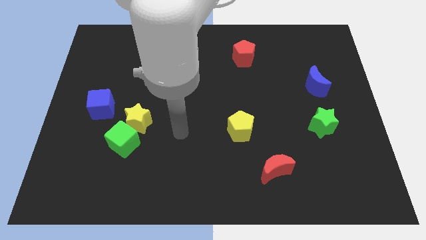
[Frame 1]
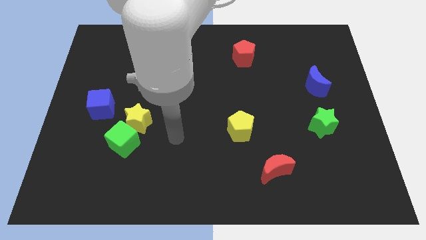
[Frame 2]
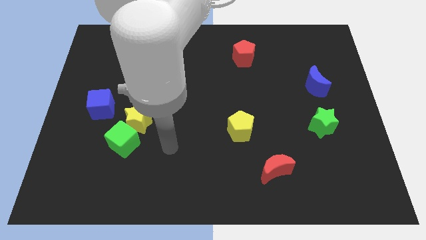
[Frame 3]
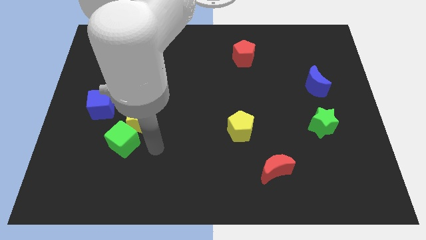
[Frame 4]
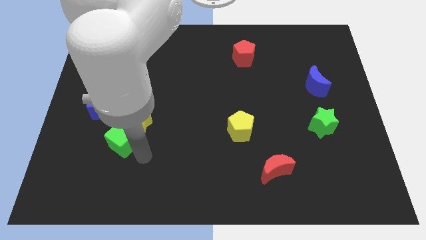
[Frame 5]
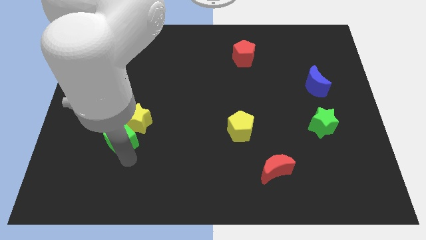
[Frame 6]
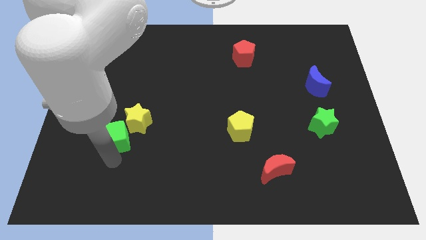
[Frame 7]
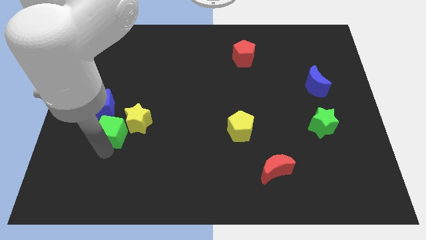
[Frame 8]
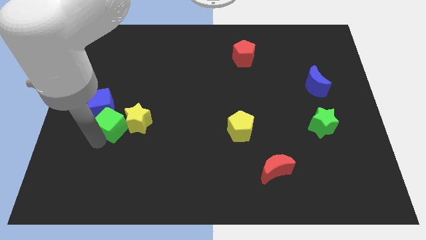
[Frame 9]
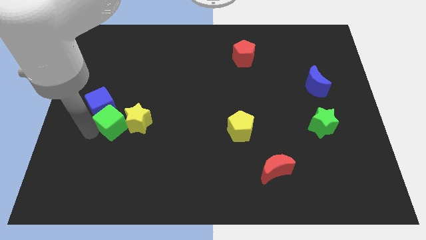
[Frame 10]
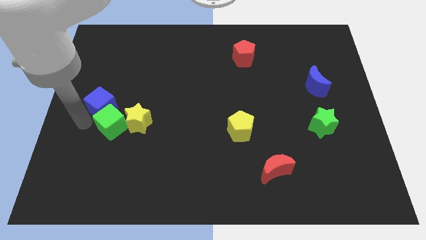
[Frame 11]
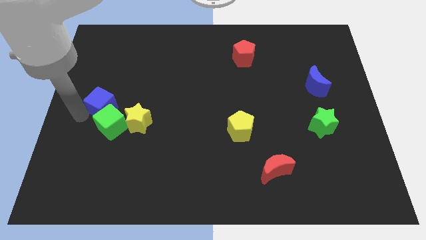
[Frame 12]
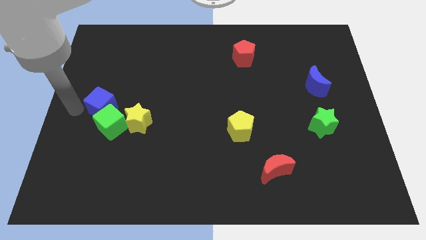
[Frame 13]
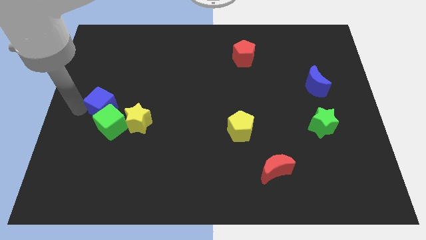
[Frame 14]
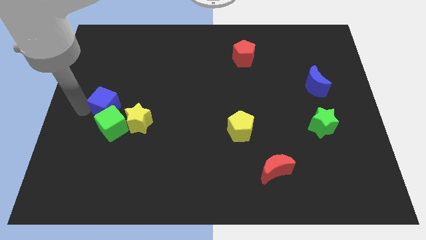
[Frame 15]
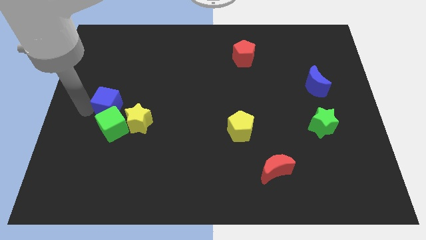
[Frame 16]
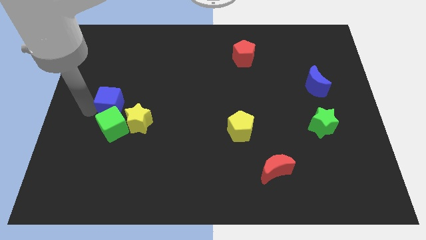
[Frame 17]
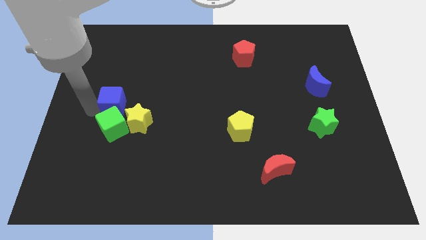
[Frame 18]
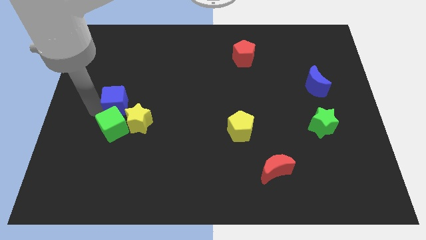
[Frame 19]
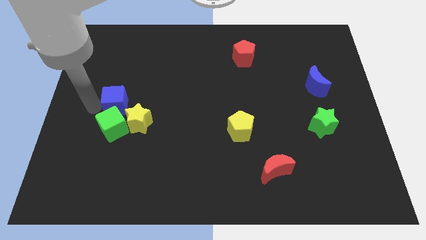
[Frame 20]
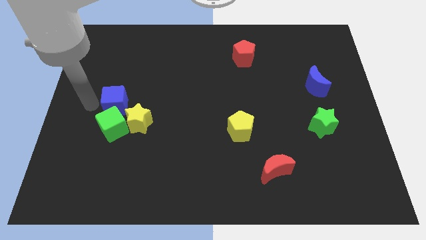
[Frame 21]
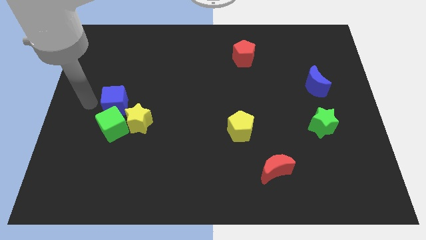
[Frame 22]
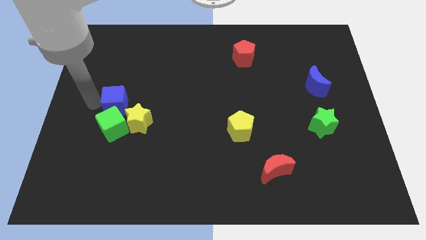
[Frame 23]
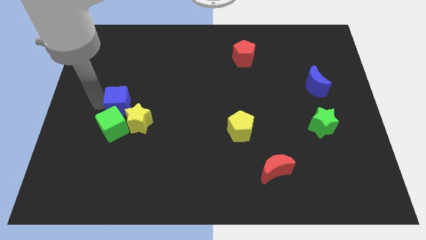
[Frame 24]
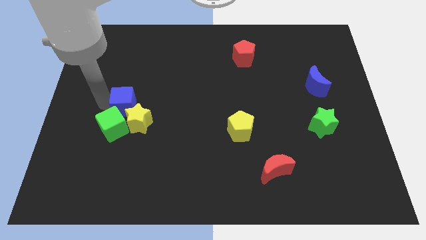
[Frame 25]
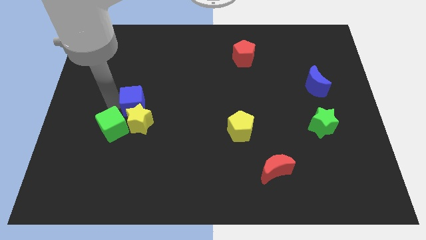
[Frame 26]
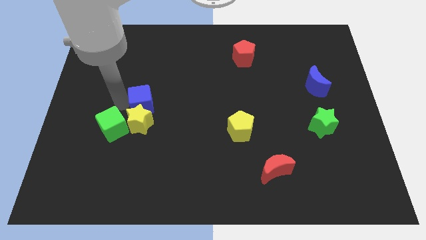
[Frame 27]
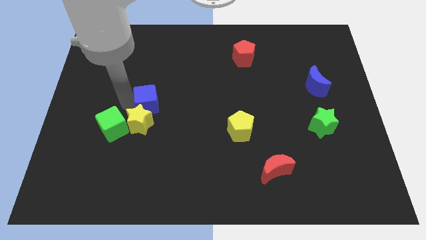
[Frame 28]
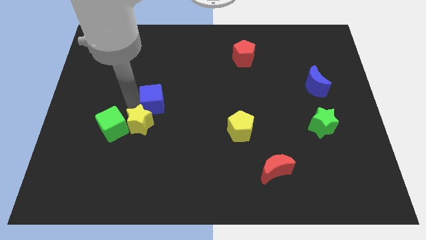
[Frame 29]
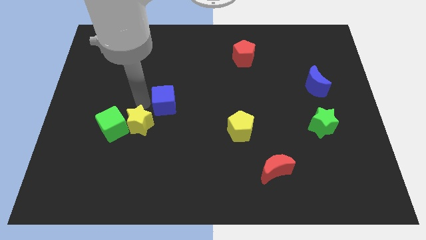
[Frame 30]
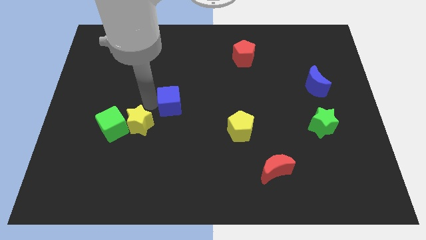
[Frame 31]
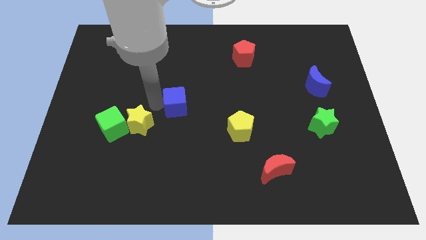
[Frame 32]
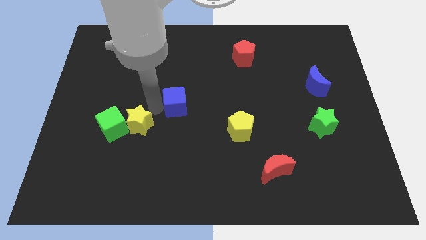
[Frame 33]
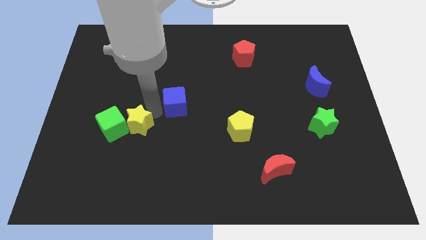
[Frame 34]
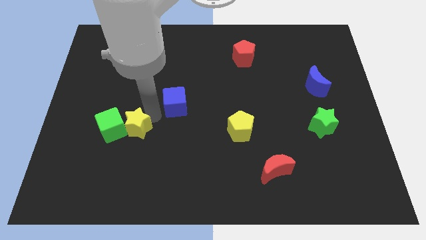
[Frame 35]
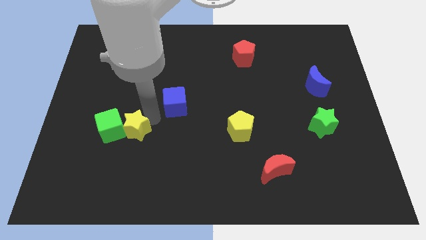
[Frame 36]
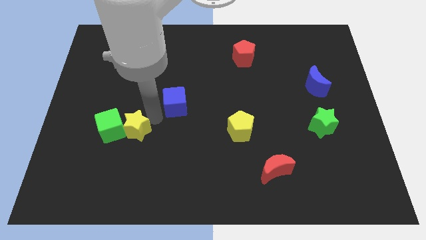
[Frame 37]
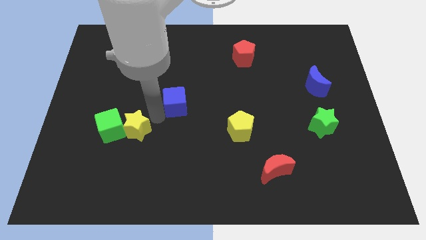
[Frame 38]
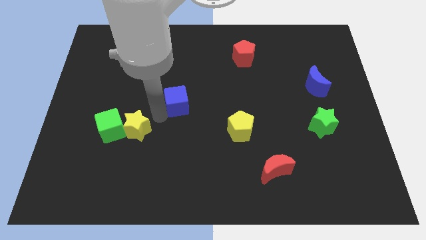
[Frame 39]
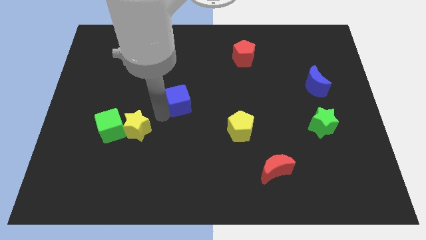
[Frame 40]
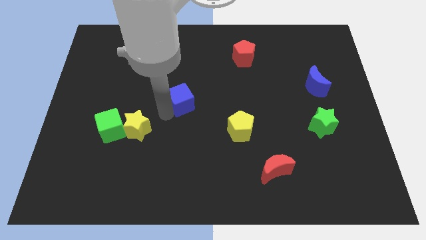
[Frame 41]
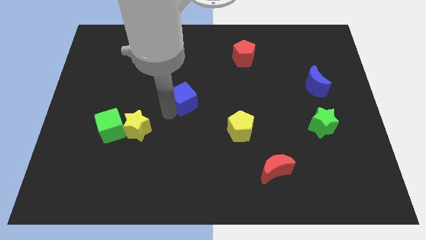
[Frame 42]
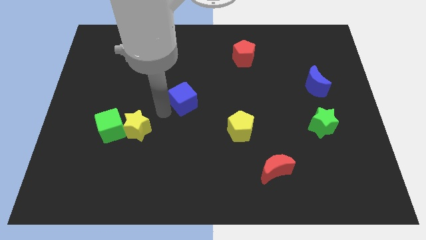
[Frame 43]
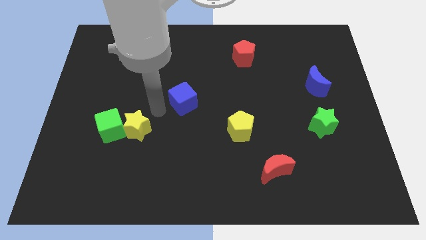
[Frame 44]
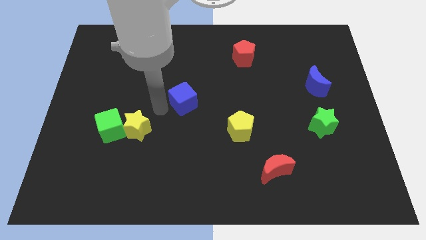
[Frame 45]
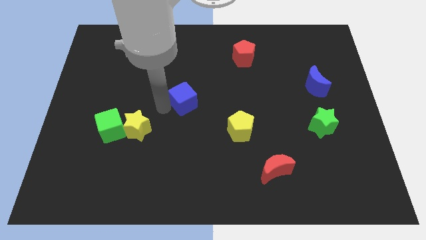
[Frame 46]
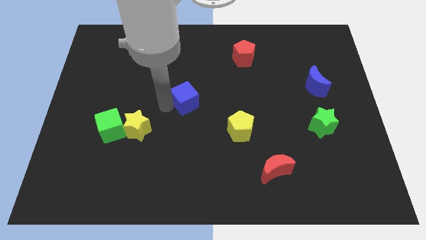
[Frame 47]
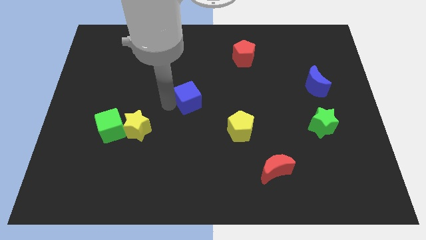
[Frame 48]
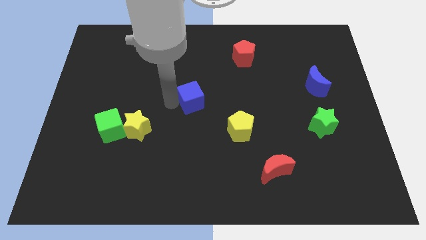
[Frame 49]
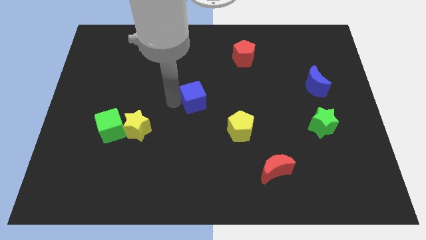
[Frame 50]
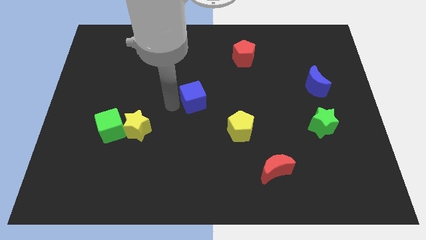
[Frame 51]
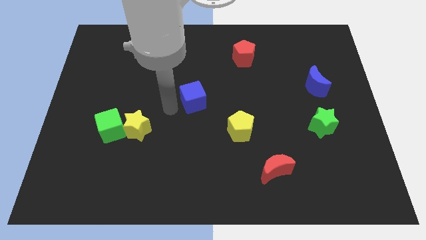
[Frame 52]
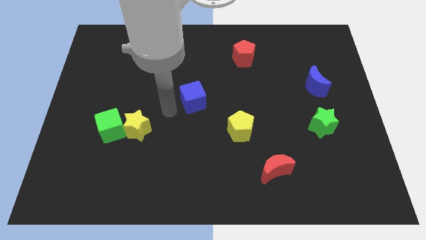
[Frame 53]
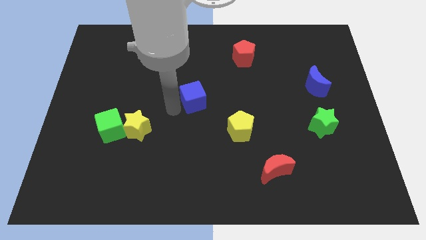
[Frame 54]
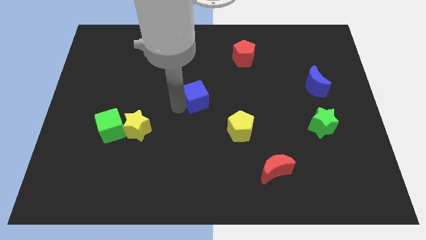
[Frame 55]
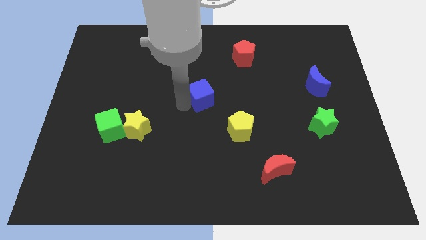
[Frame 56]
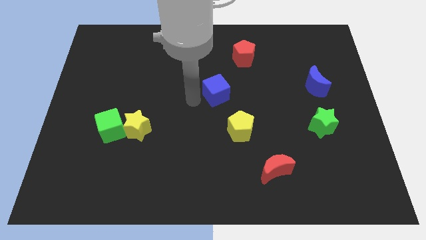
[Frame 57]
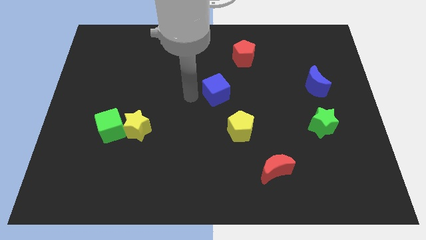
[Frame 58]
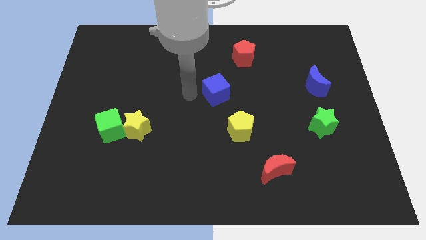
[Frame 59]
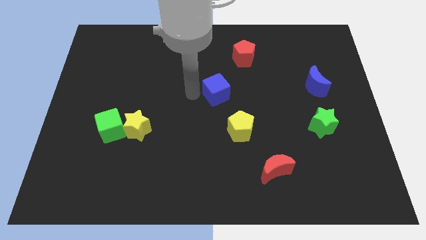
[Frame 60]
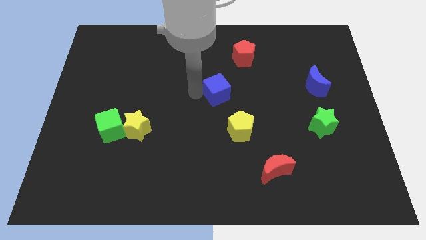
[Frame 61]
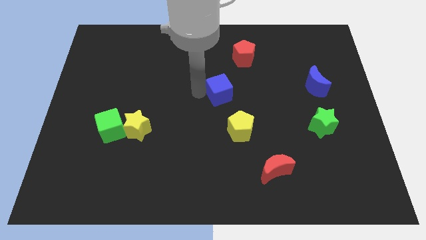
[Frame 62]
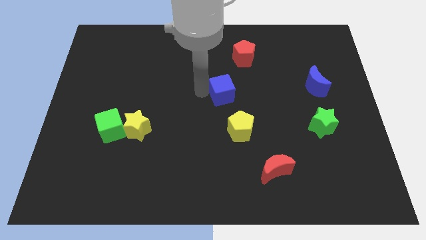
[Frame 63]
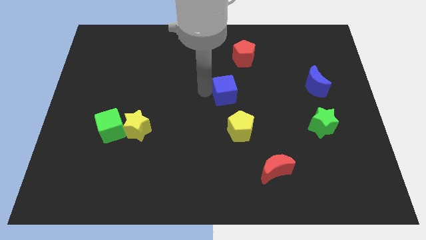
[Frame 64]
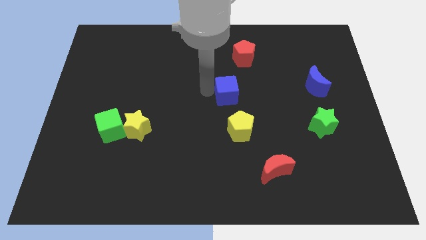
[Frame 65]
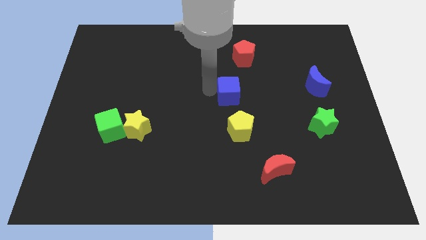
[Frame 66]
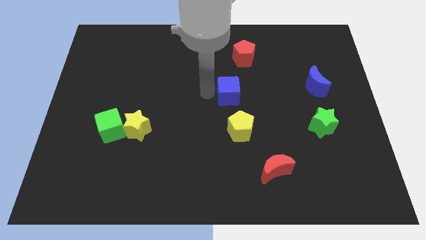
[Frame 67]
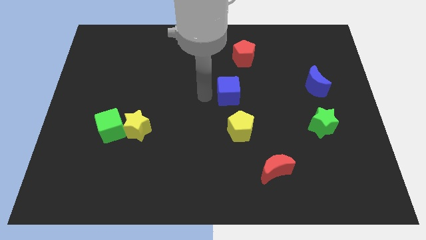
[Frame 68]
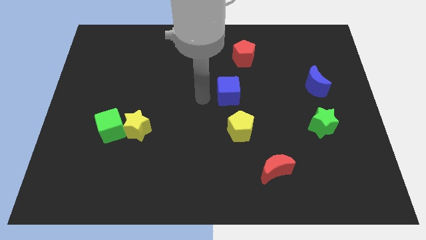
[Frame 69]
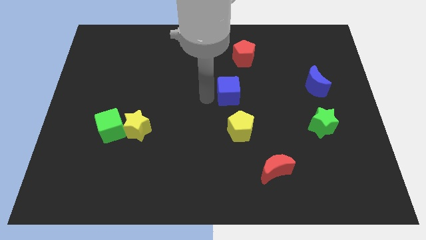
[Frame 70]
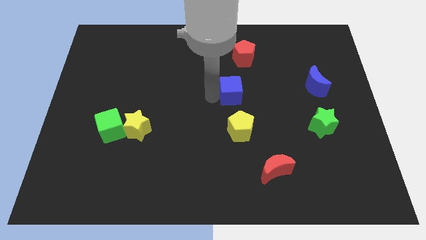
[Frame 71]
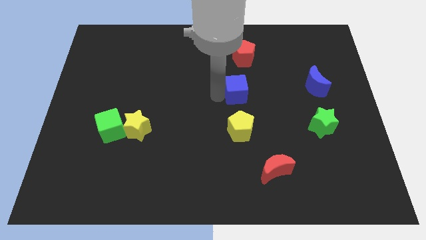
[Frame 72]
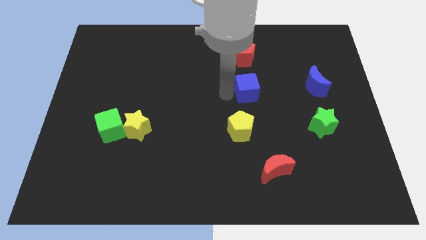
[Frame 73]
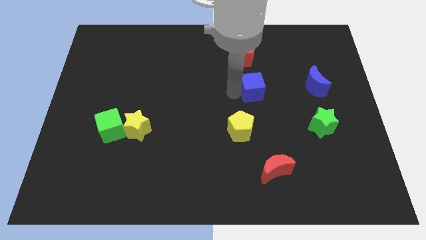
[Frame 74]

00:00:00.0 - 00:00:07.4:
move the blue cube just left of the blue moon

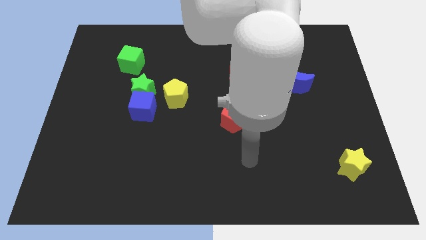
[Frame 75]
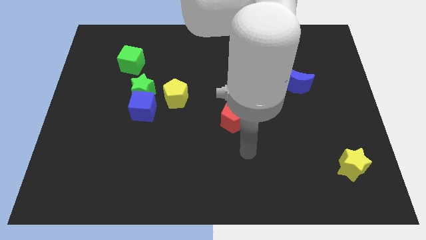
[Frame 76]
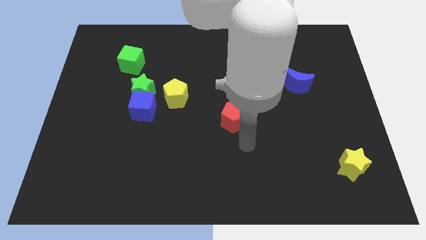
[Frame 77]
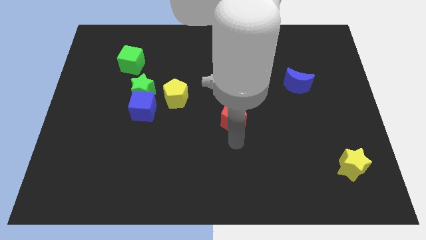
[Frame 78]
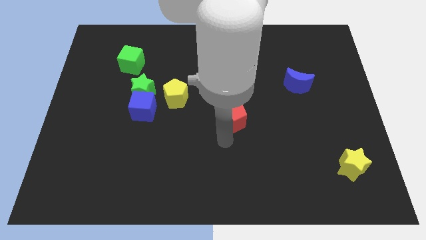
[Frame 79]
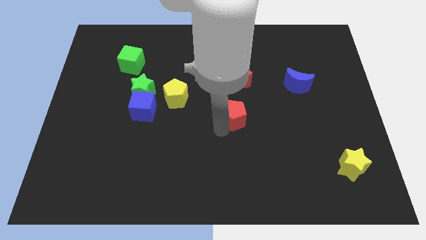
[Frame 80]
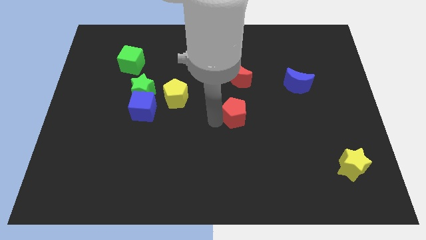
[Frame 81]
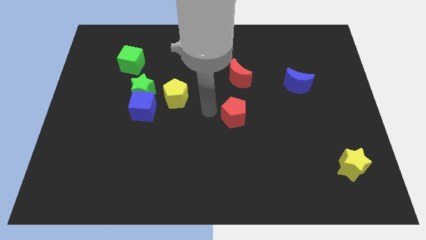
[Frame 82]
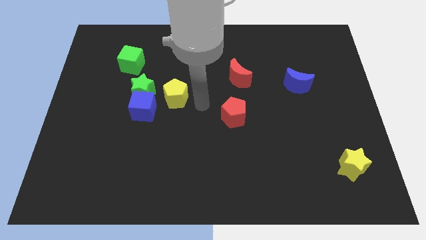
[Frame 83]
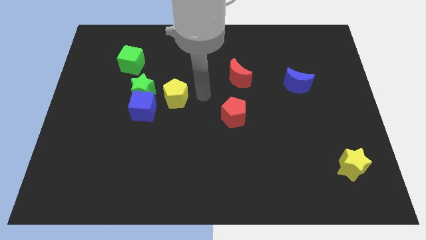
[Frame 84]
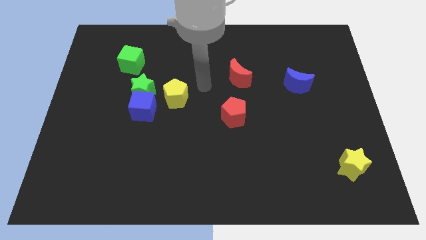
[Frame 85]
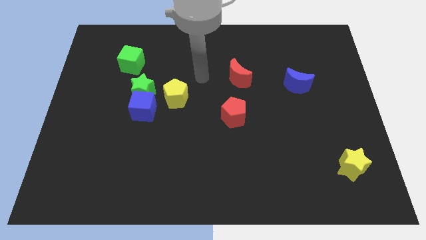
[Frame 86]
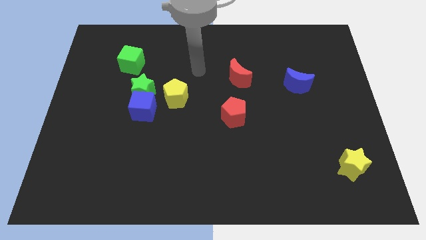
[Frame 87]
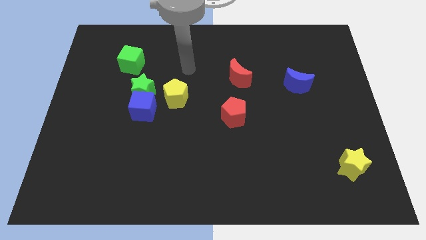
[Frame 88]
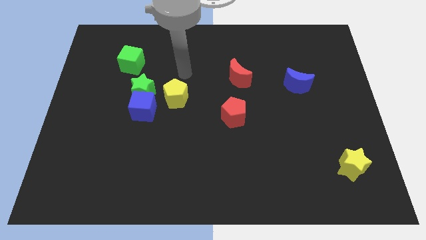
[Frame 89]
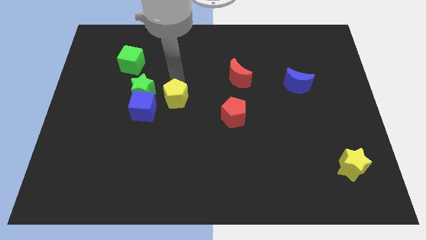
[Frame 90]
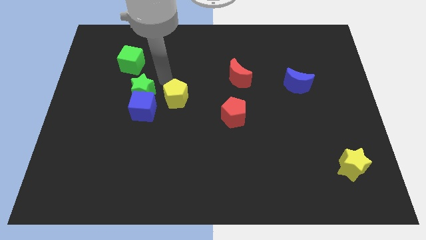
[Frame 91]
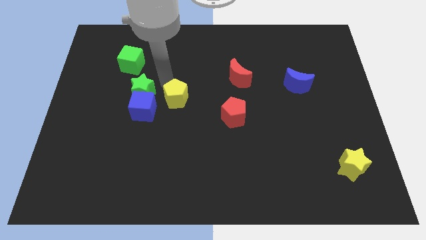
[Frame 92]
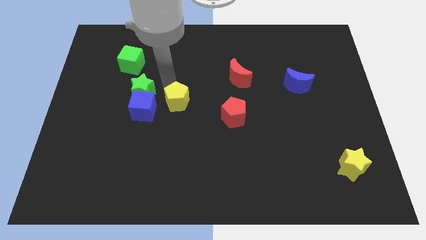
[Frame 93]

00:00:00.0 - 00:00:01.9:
slide the yellow pentagon to the left of the red pentagon
